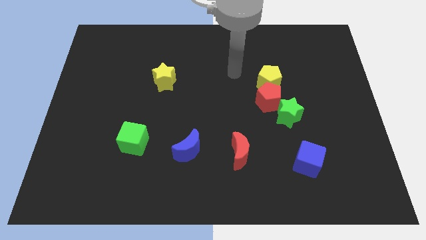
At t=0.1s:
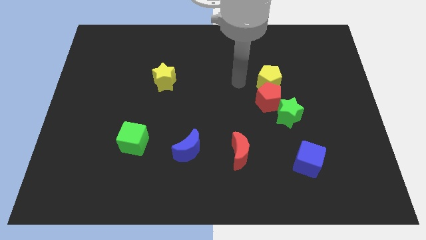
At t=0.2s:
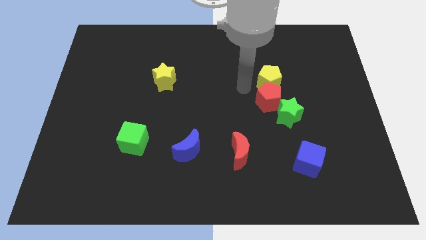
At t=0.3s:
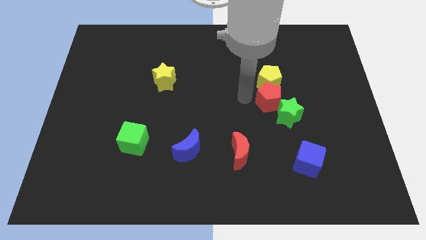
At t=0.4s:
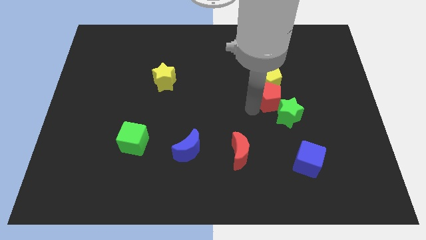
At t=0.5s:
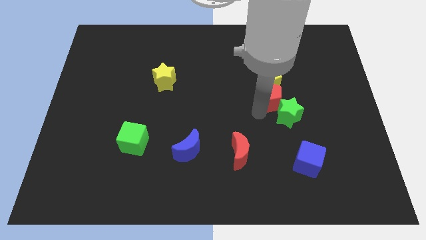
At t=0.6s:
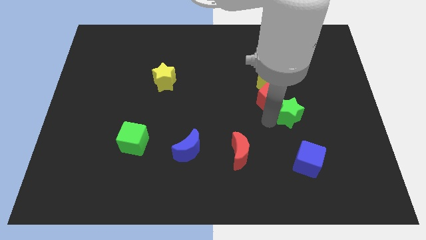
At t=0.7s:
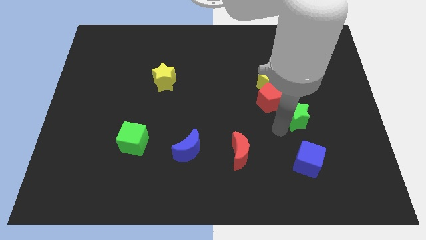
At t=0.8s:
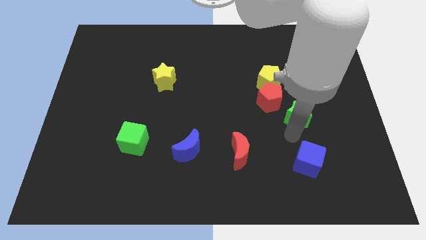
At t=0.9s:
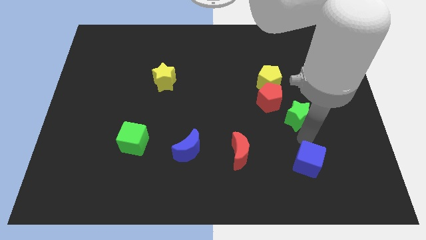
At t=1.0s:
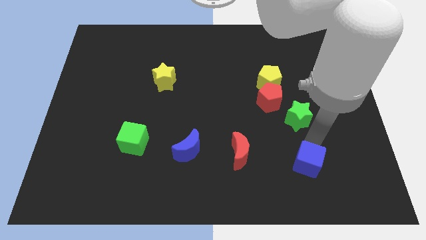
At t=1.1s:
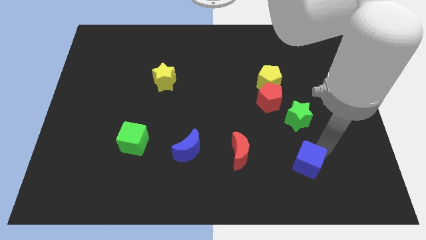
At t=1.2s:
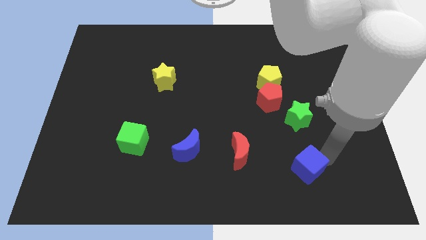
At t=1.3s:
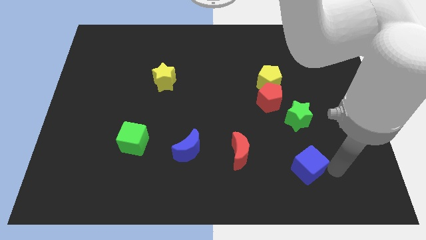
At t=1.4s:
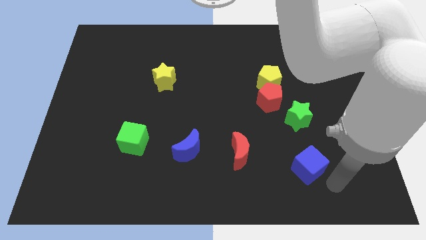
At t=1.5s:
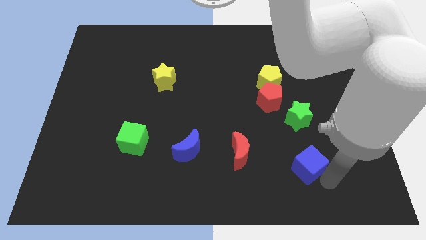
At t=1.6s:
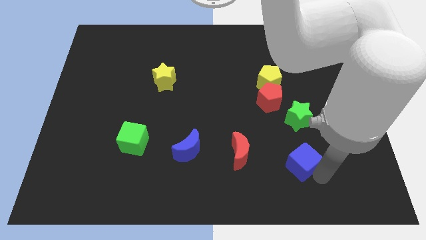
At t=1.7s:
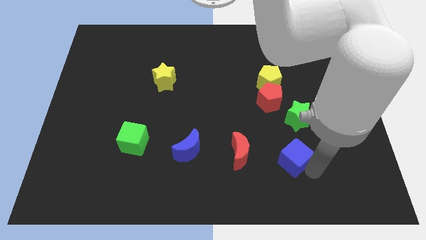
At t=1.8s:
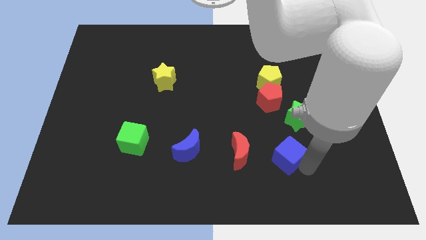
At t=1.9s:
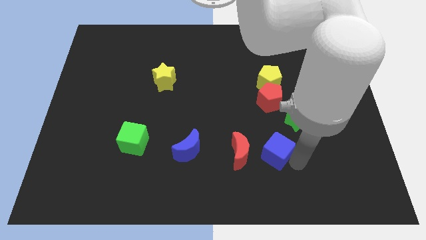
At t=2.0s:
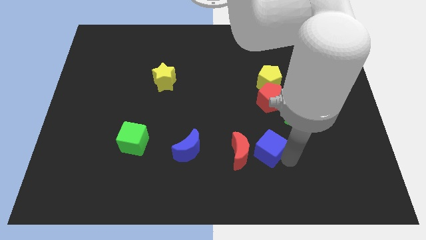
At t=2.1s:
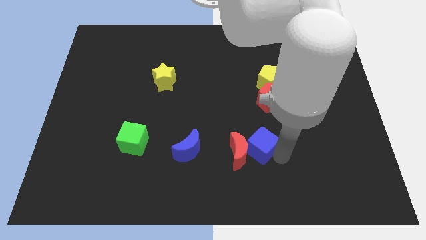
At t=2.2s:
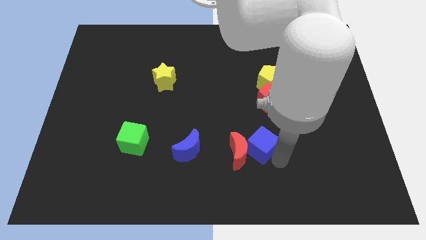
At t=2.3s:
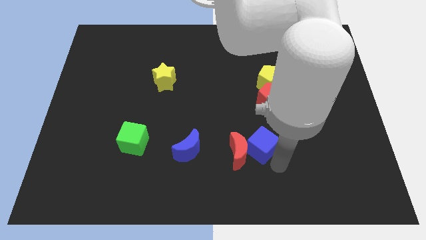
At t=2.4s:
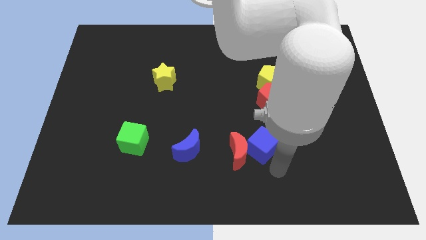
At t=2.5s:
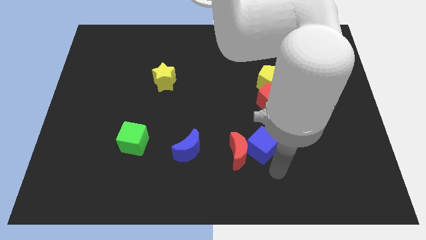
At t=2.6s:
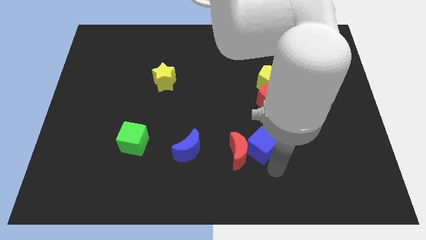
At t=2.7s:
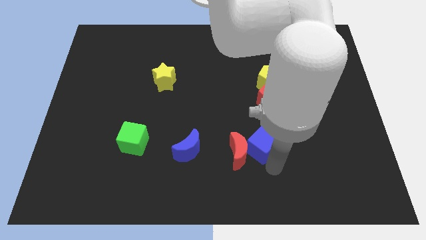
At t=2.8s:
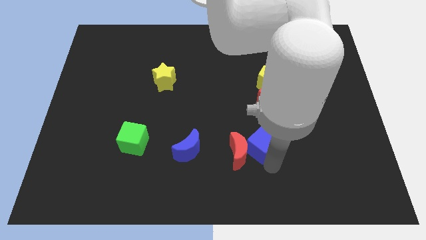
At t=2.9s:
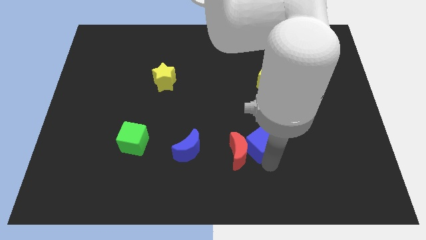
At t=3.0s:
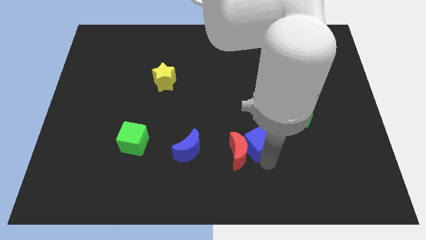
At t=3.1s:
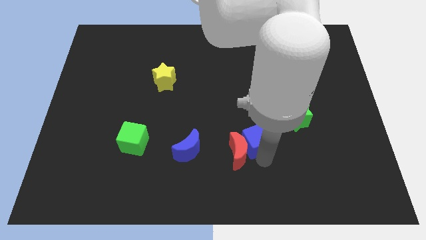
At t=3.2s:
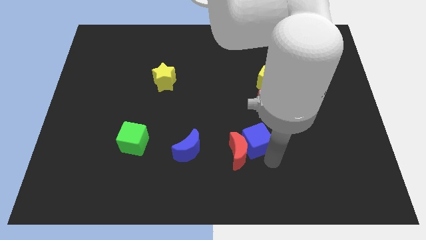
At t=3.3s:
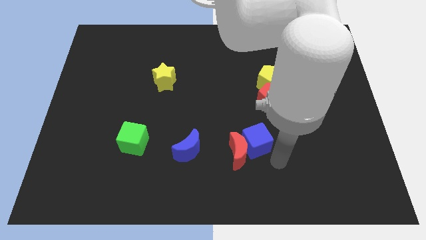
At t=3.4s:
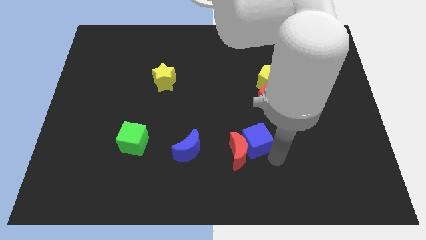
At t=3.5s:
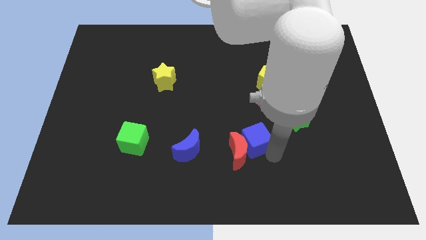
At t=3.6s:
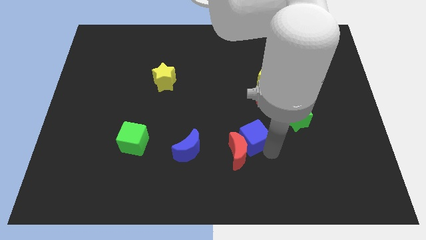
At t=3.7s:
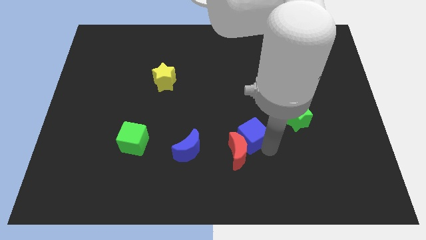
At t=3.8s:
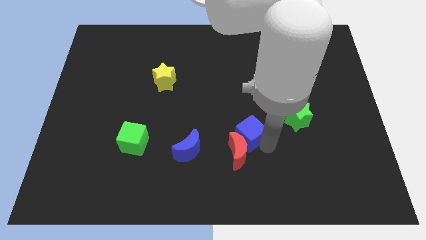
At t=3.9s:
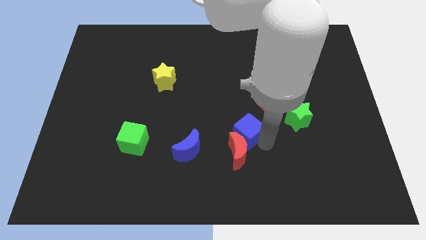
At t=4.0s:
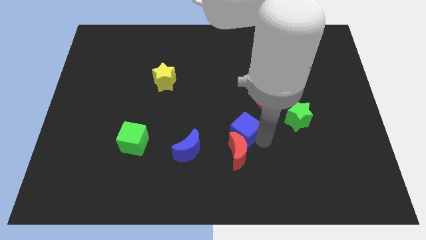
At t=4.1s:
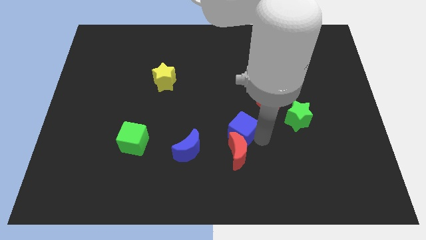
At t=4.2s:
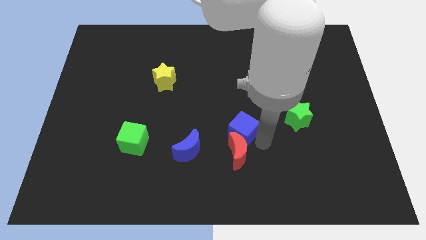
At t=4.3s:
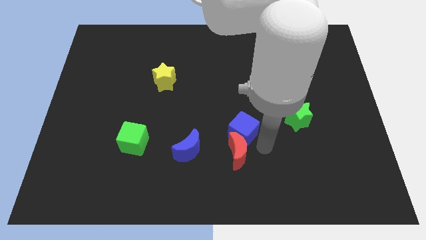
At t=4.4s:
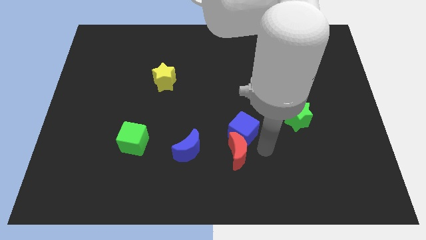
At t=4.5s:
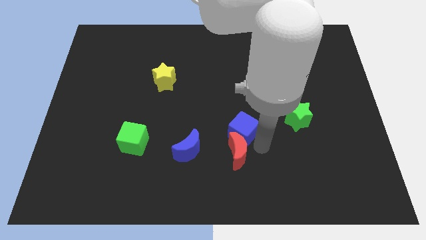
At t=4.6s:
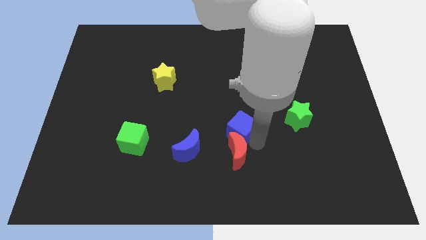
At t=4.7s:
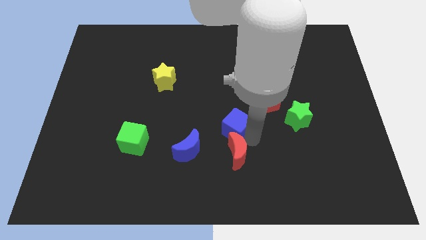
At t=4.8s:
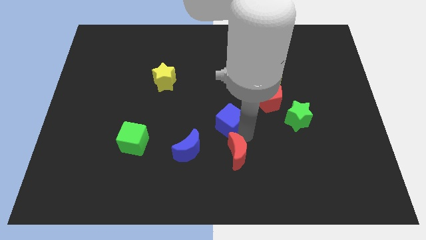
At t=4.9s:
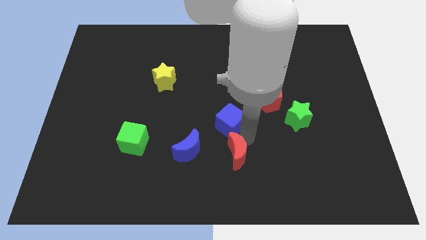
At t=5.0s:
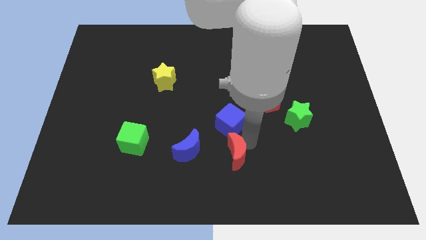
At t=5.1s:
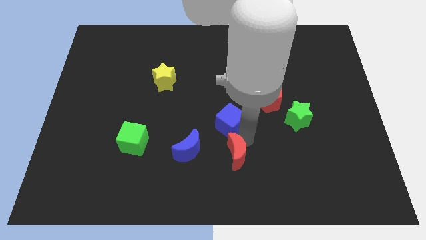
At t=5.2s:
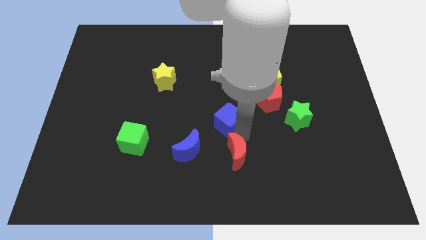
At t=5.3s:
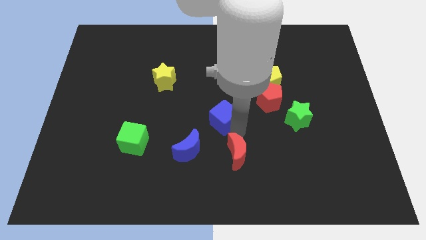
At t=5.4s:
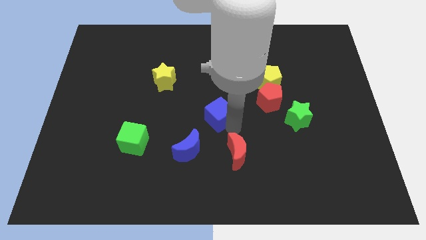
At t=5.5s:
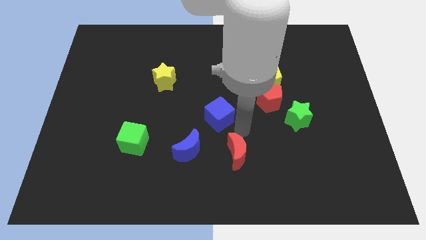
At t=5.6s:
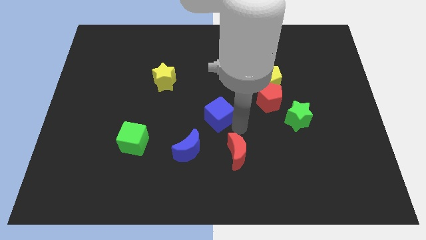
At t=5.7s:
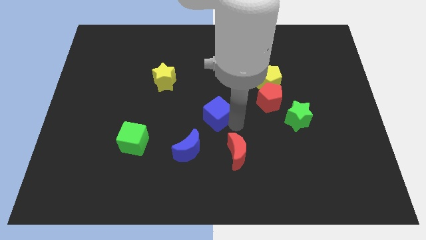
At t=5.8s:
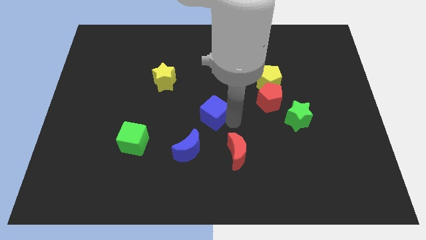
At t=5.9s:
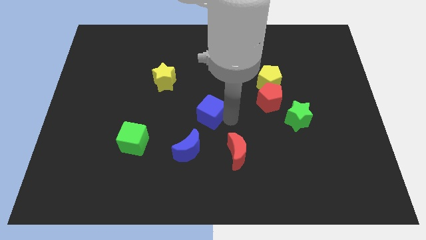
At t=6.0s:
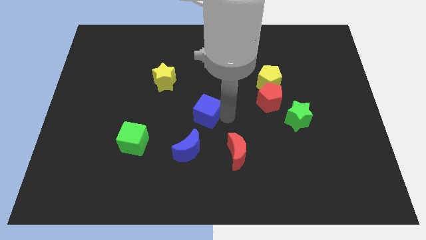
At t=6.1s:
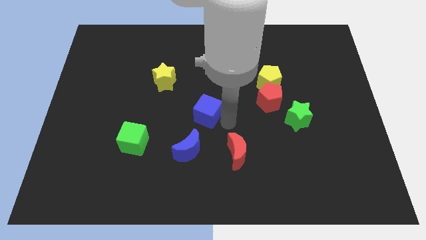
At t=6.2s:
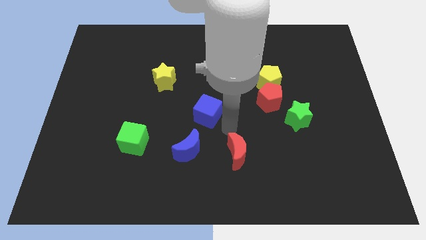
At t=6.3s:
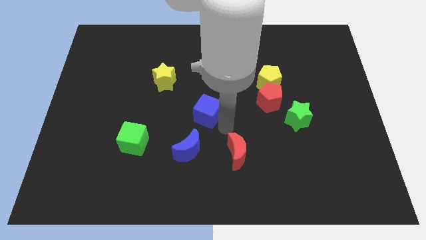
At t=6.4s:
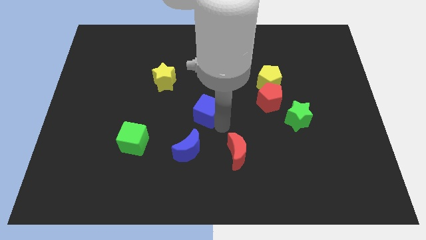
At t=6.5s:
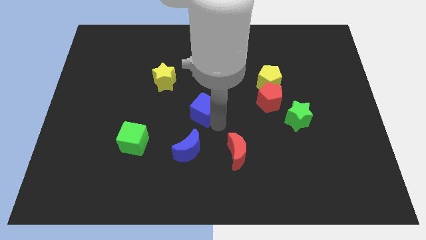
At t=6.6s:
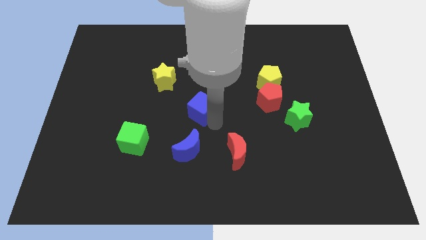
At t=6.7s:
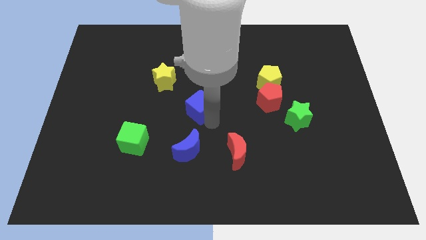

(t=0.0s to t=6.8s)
slide the blue cube to the bottom right of the yellow star

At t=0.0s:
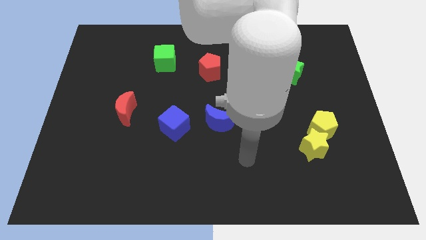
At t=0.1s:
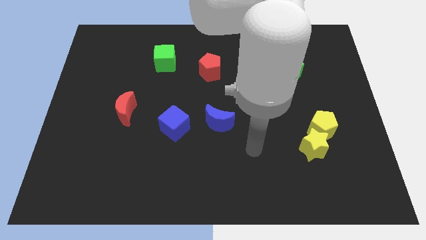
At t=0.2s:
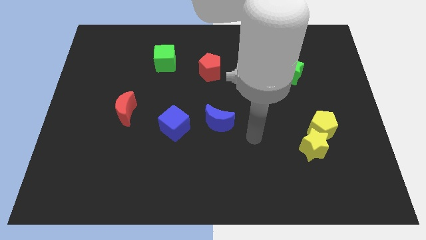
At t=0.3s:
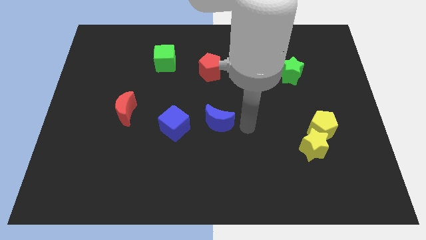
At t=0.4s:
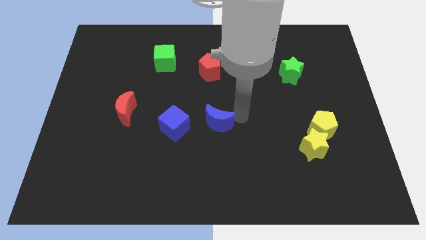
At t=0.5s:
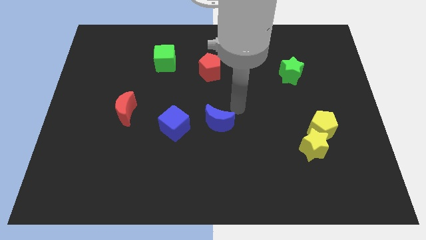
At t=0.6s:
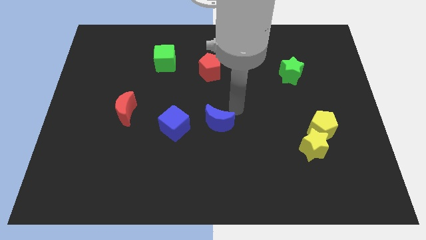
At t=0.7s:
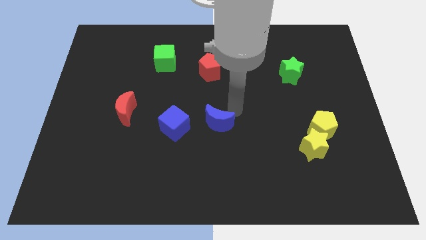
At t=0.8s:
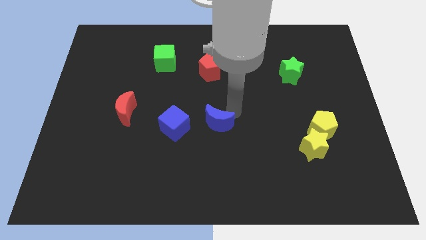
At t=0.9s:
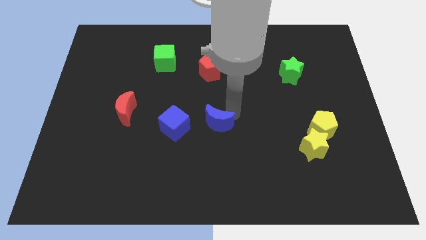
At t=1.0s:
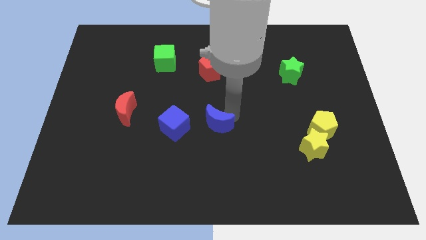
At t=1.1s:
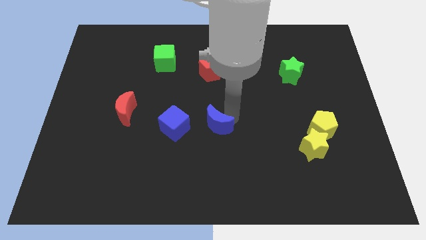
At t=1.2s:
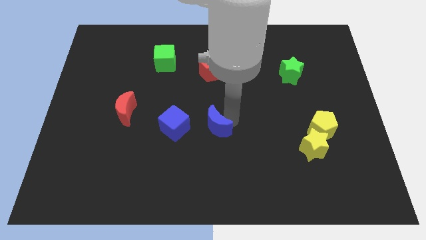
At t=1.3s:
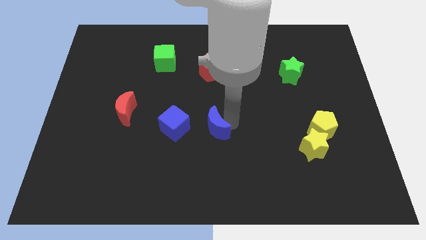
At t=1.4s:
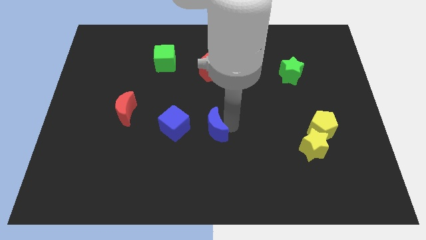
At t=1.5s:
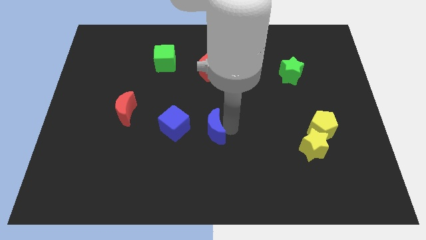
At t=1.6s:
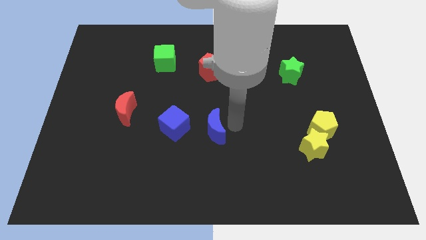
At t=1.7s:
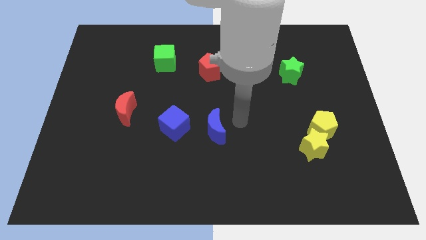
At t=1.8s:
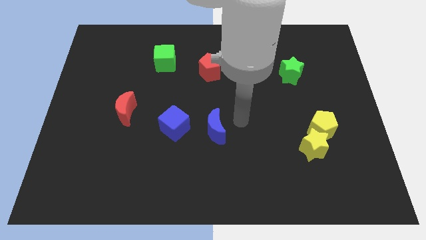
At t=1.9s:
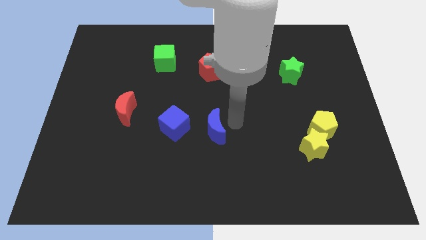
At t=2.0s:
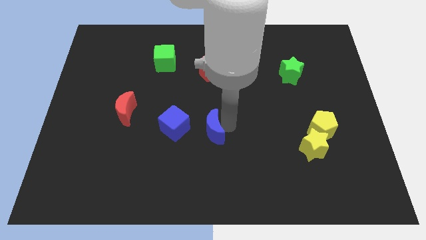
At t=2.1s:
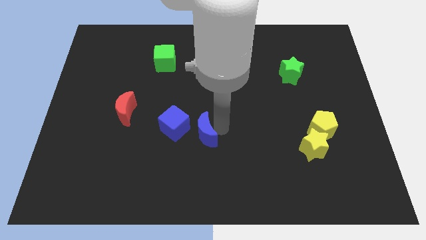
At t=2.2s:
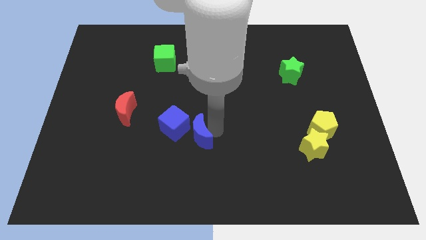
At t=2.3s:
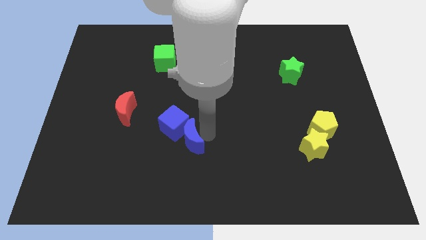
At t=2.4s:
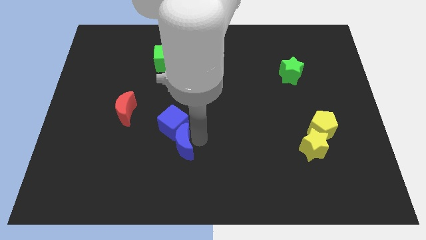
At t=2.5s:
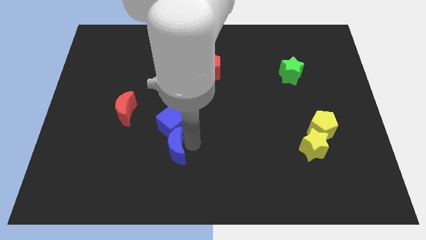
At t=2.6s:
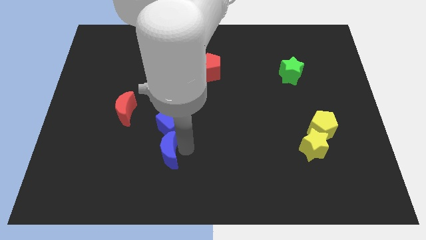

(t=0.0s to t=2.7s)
push the blue moon diagonally down and to the left of the blue cube
